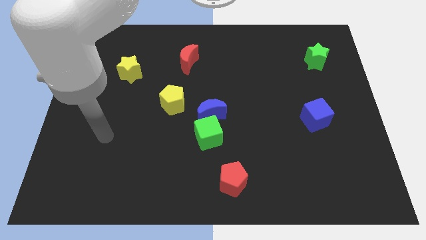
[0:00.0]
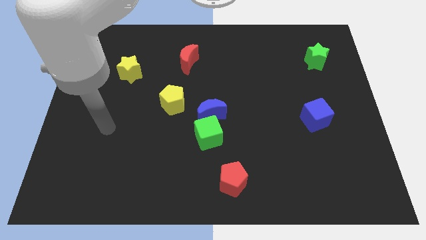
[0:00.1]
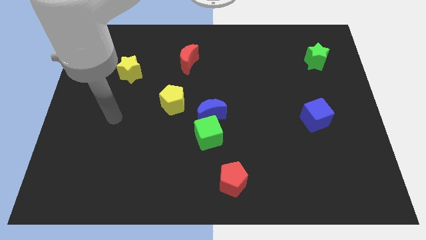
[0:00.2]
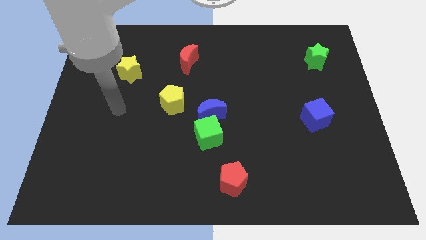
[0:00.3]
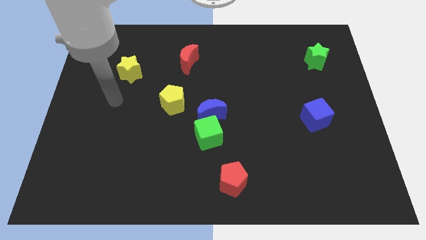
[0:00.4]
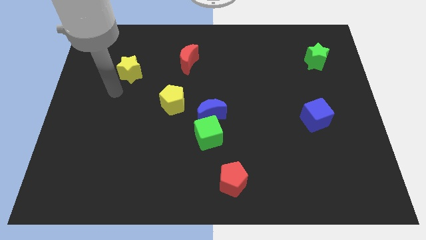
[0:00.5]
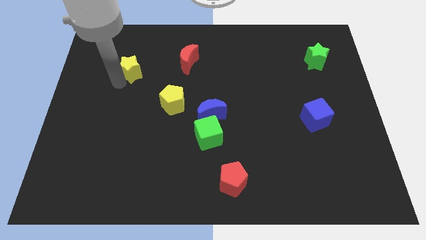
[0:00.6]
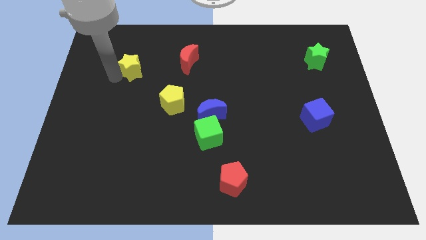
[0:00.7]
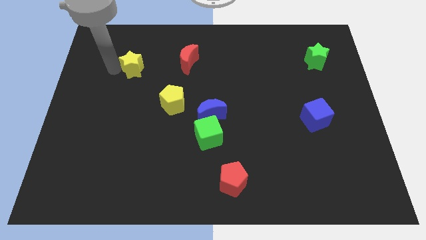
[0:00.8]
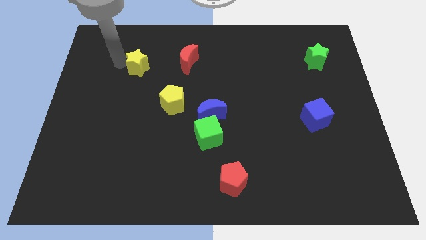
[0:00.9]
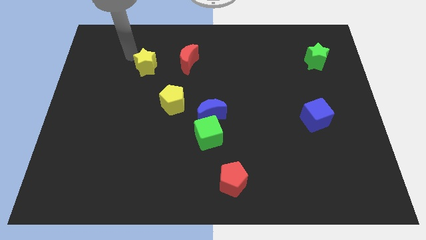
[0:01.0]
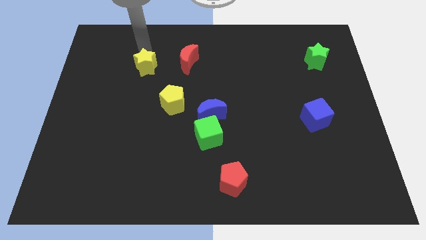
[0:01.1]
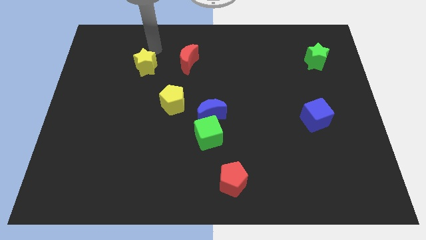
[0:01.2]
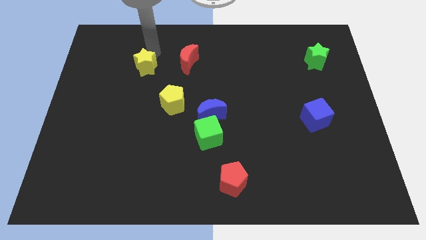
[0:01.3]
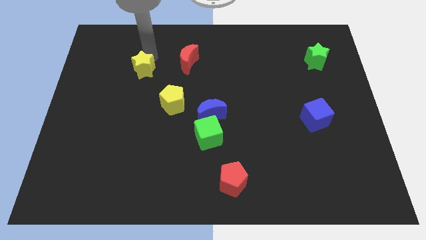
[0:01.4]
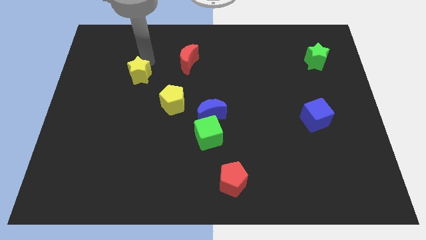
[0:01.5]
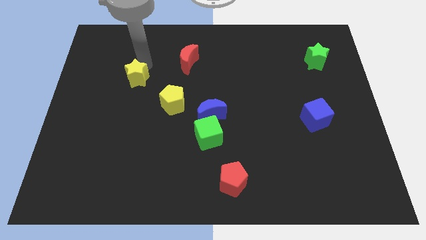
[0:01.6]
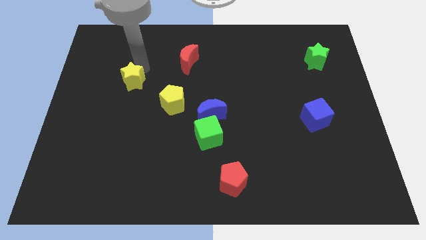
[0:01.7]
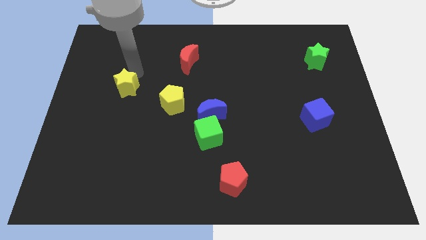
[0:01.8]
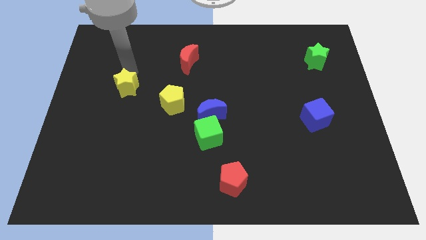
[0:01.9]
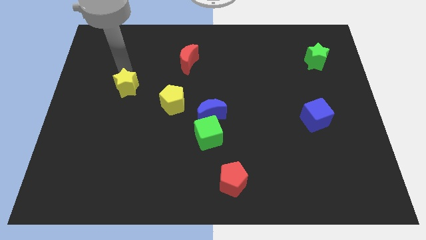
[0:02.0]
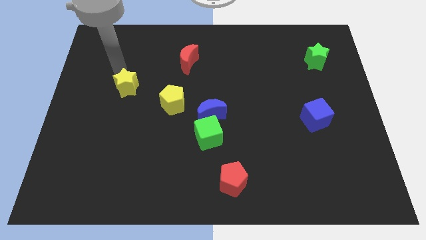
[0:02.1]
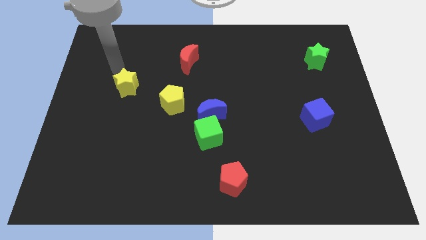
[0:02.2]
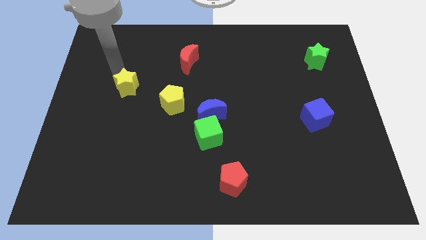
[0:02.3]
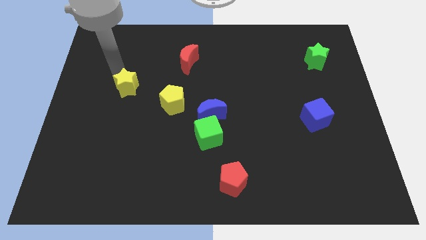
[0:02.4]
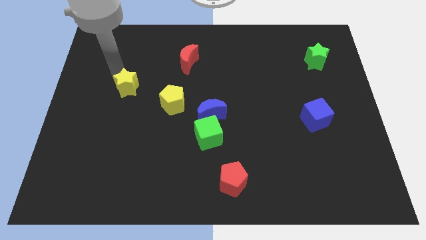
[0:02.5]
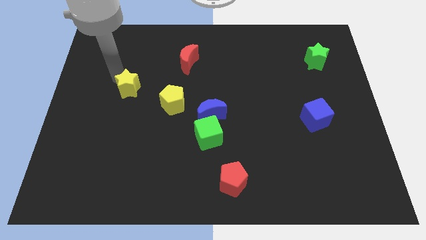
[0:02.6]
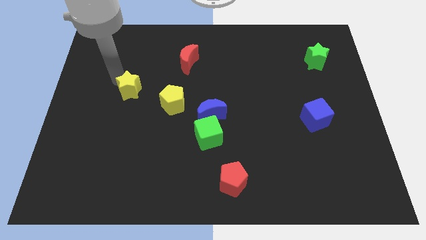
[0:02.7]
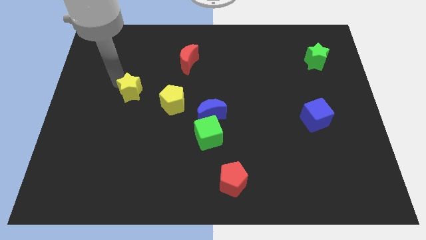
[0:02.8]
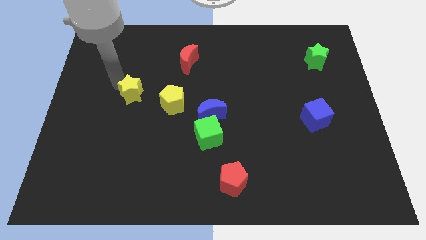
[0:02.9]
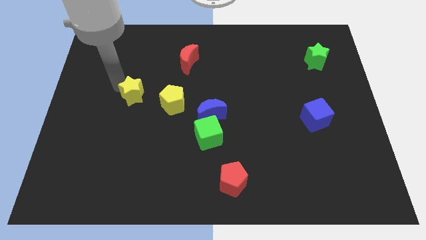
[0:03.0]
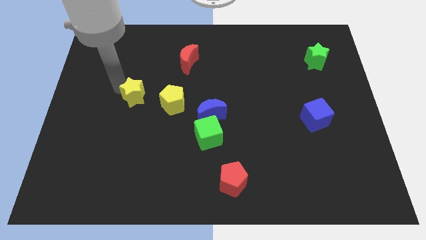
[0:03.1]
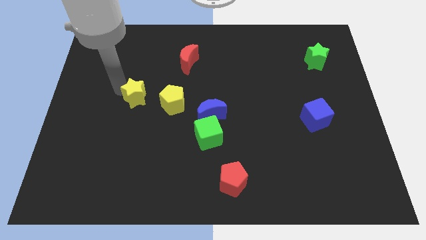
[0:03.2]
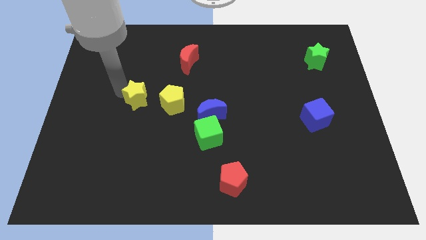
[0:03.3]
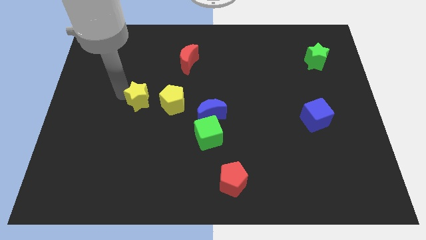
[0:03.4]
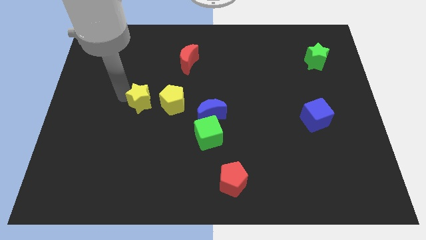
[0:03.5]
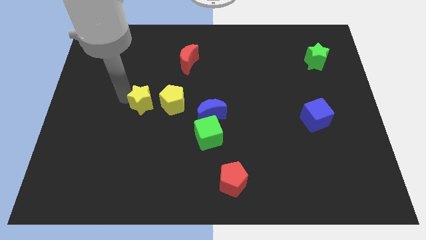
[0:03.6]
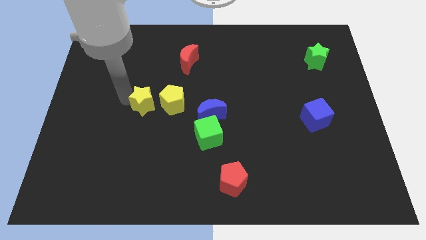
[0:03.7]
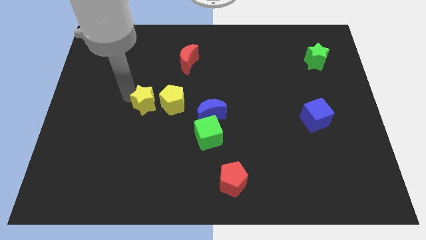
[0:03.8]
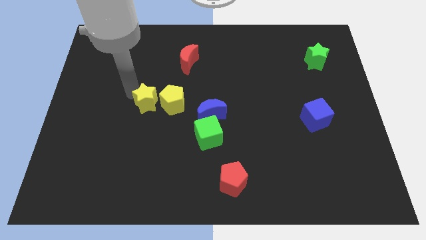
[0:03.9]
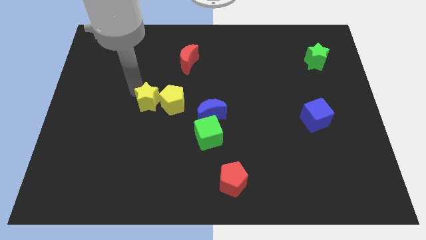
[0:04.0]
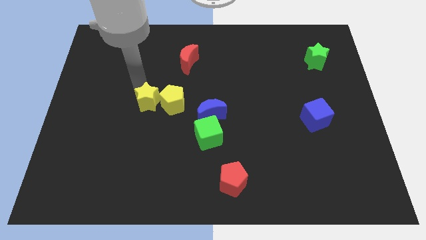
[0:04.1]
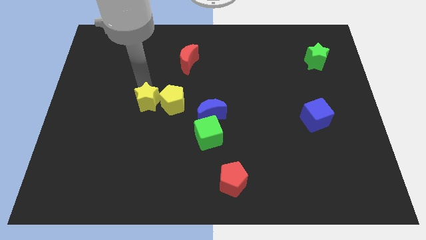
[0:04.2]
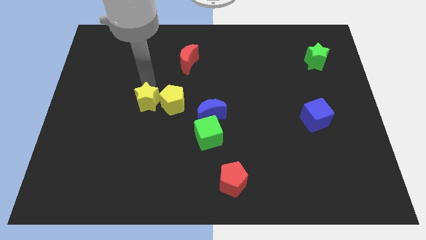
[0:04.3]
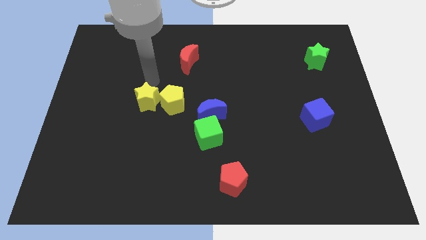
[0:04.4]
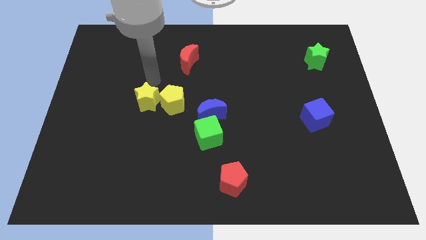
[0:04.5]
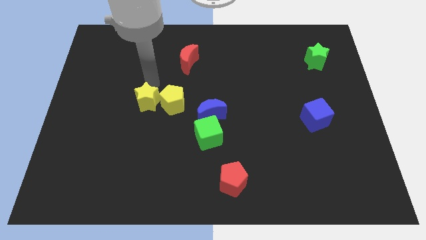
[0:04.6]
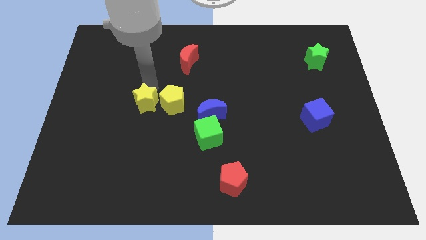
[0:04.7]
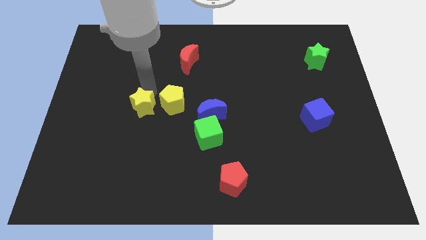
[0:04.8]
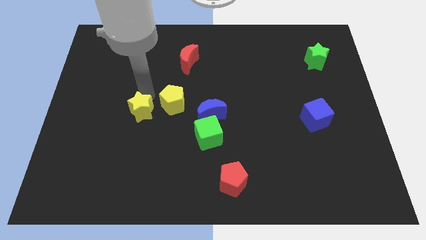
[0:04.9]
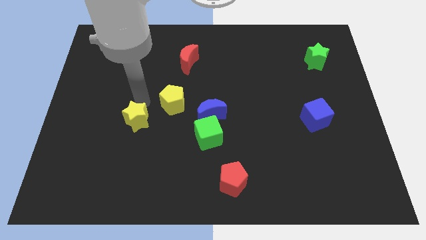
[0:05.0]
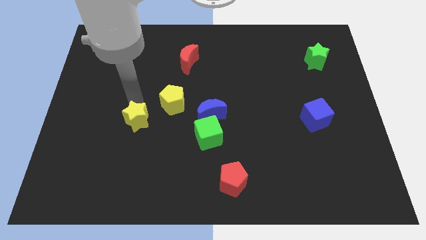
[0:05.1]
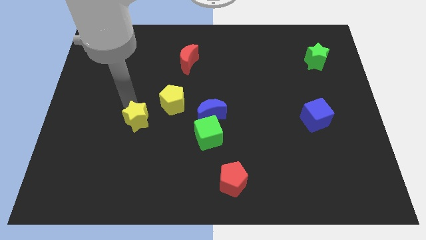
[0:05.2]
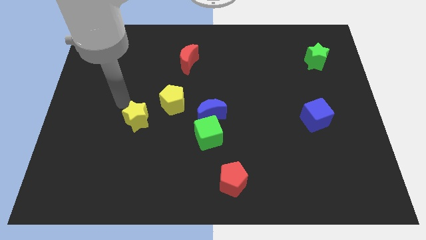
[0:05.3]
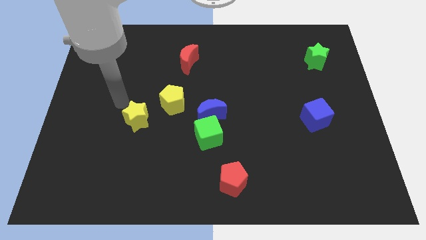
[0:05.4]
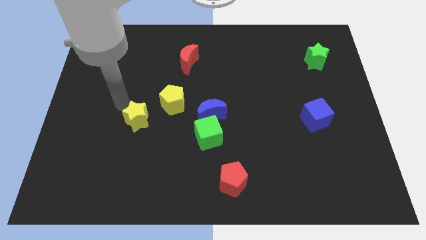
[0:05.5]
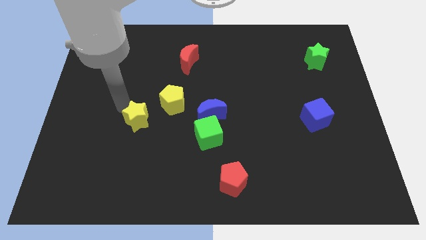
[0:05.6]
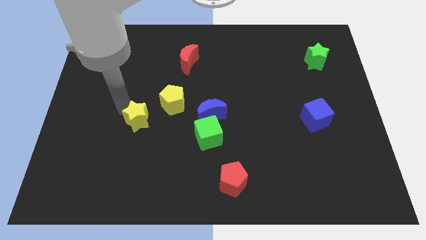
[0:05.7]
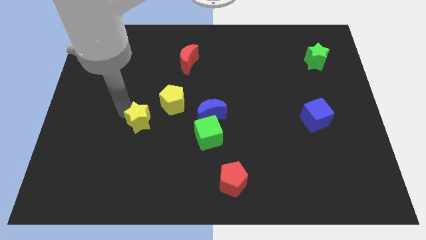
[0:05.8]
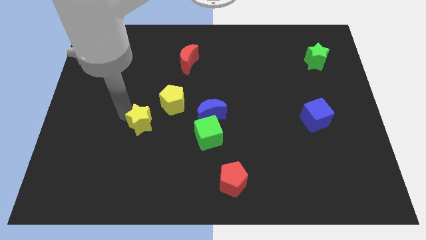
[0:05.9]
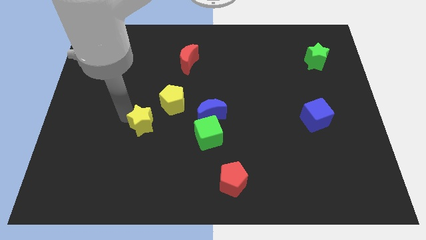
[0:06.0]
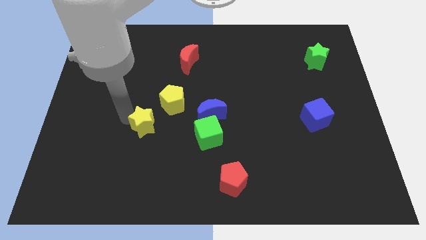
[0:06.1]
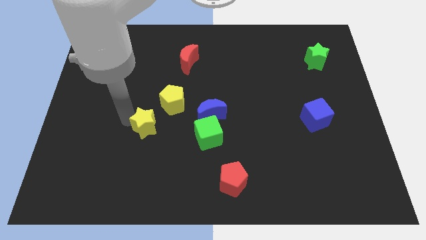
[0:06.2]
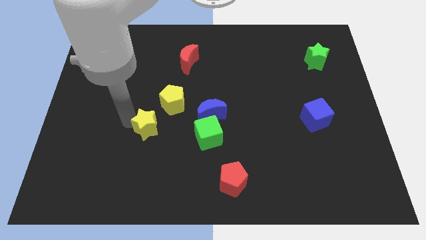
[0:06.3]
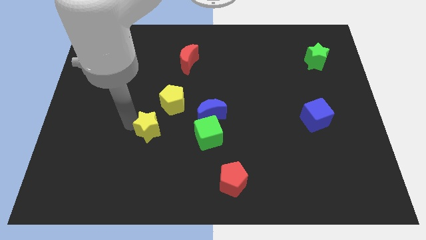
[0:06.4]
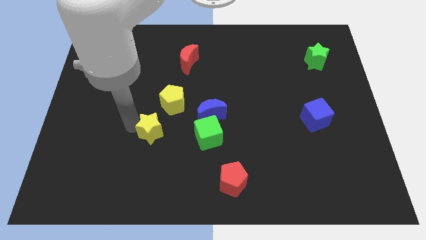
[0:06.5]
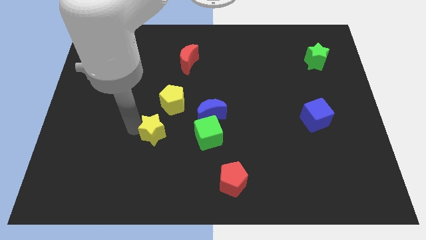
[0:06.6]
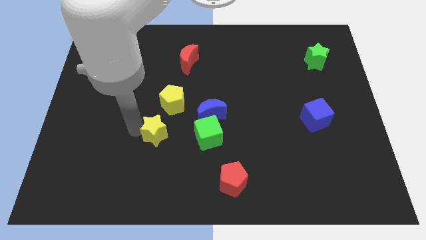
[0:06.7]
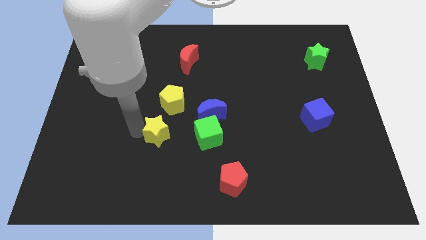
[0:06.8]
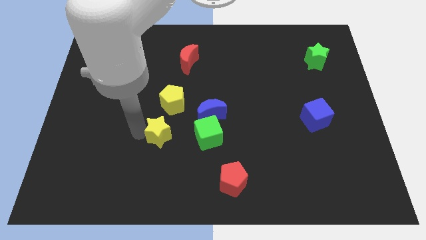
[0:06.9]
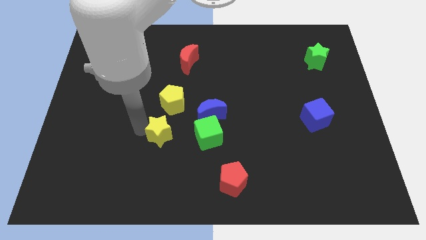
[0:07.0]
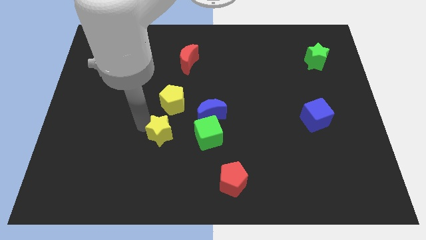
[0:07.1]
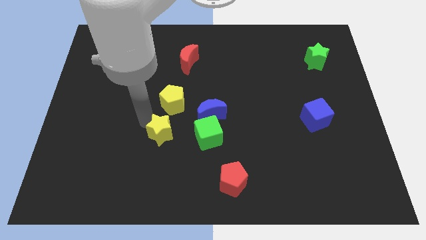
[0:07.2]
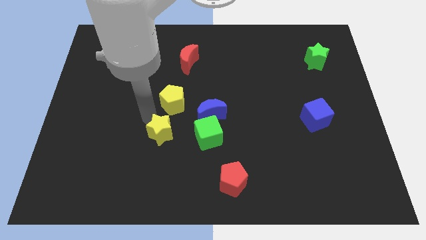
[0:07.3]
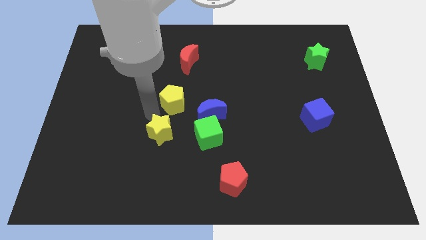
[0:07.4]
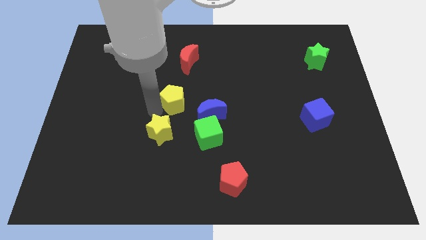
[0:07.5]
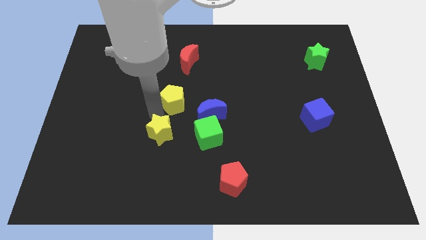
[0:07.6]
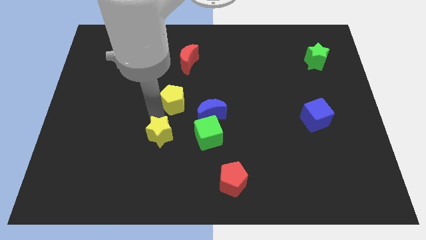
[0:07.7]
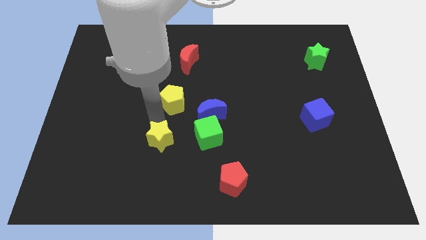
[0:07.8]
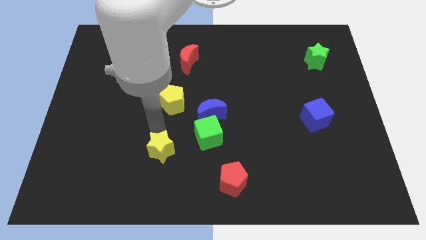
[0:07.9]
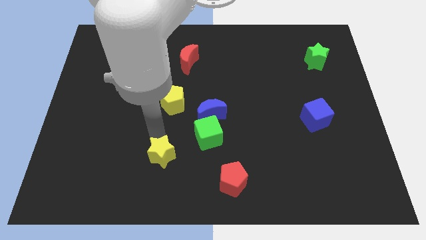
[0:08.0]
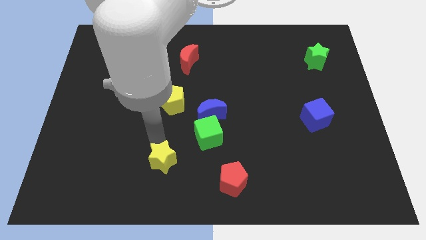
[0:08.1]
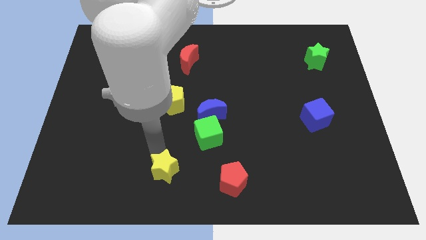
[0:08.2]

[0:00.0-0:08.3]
slide the yellow star to the bottom
